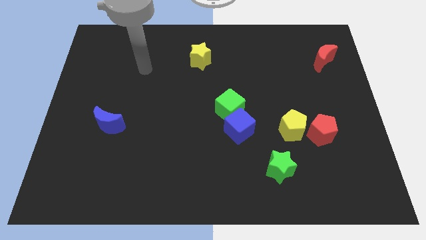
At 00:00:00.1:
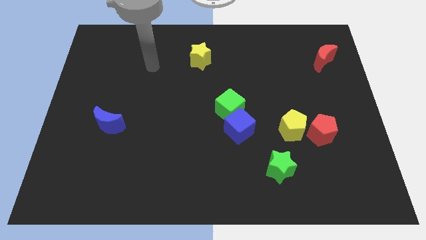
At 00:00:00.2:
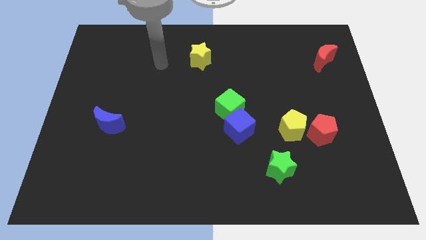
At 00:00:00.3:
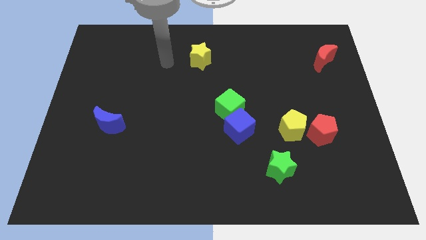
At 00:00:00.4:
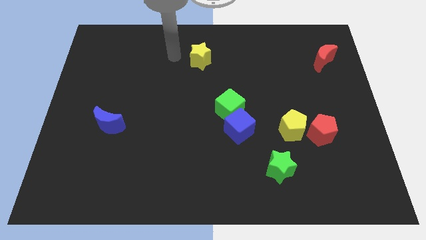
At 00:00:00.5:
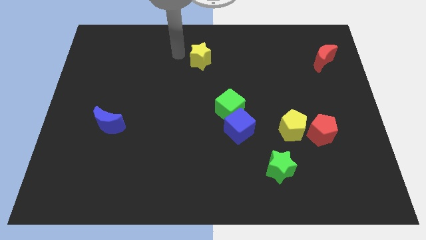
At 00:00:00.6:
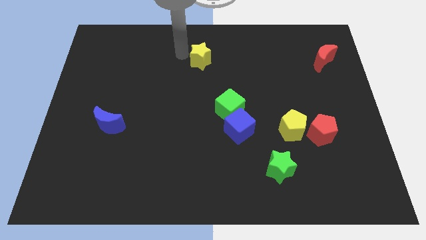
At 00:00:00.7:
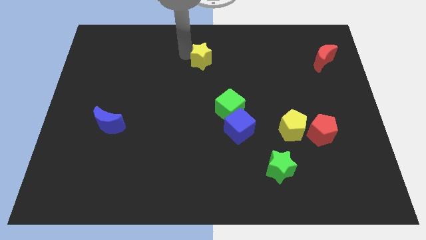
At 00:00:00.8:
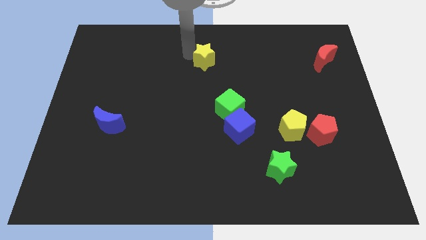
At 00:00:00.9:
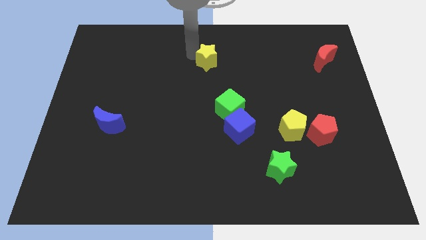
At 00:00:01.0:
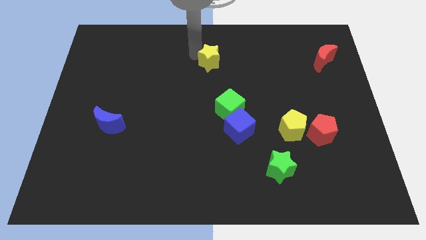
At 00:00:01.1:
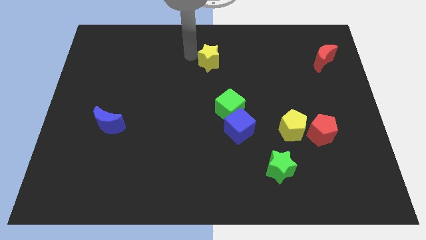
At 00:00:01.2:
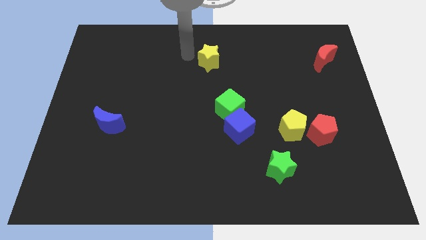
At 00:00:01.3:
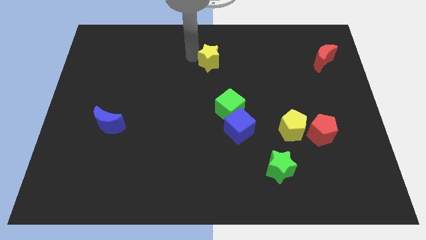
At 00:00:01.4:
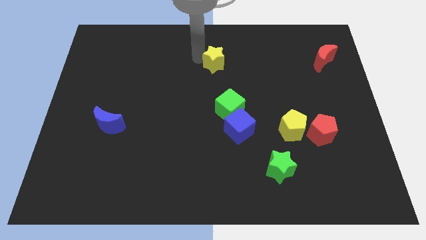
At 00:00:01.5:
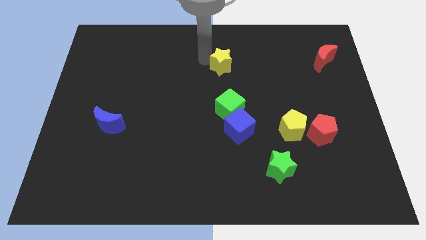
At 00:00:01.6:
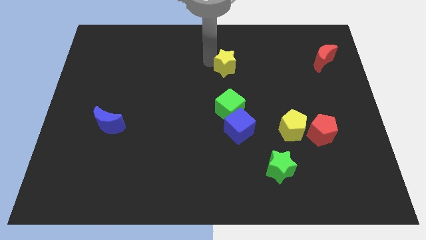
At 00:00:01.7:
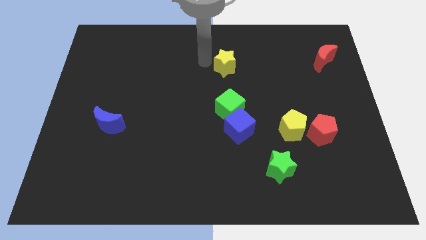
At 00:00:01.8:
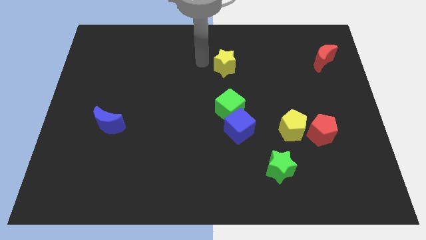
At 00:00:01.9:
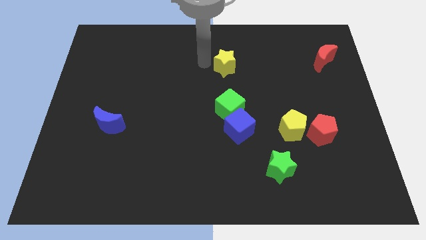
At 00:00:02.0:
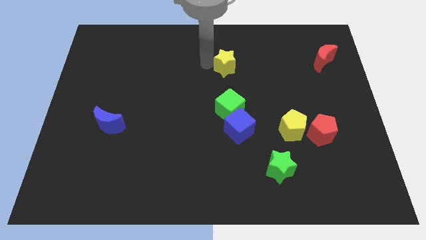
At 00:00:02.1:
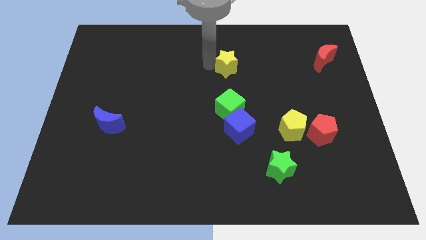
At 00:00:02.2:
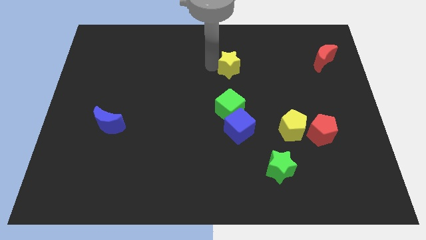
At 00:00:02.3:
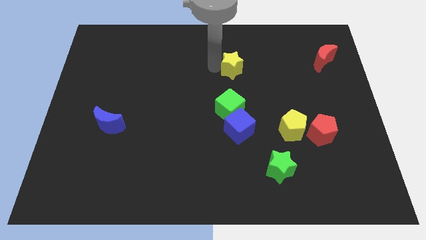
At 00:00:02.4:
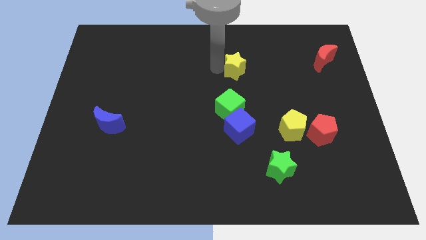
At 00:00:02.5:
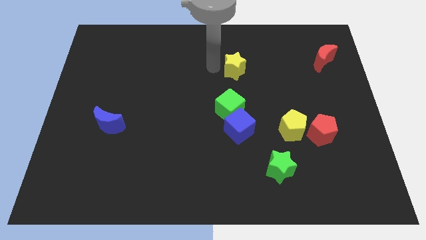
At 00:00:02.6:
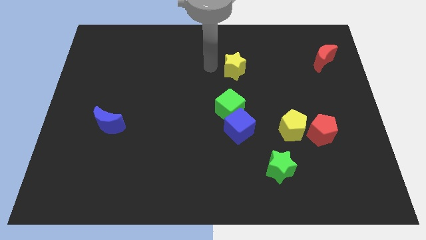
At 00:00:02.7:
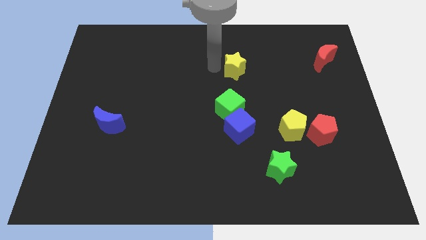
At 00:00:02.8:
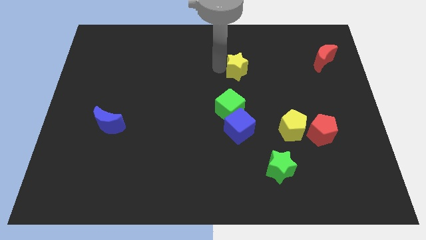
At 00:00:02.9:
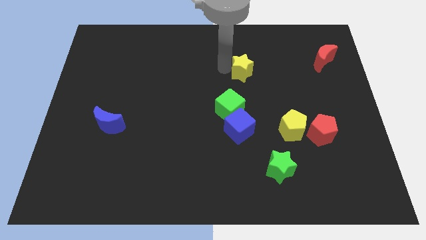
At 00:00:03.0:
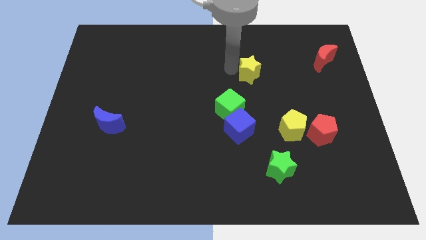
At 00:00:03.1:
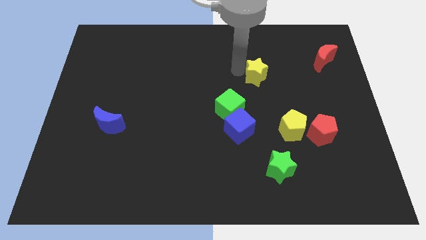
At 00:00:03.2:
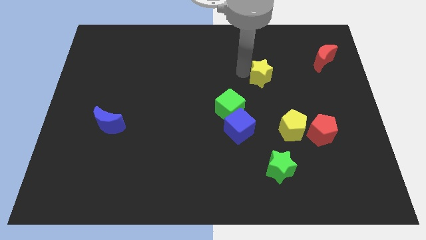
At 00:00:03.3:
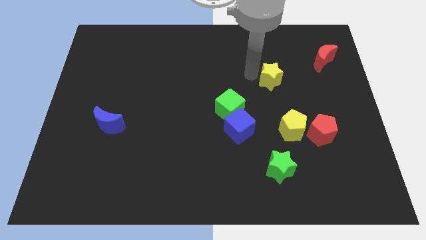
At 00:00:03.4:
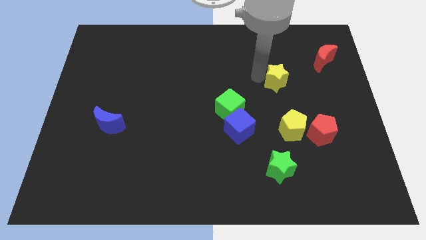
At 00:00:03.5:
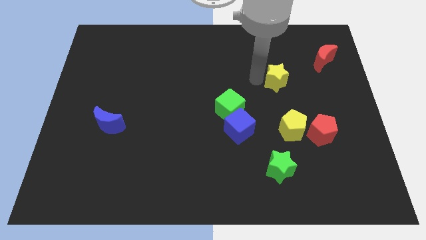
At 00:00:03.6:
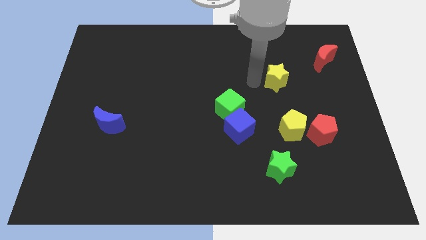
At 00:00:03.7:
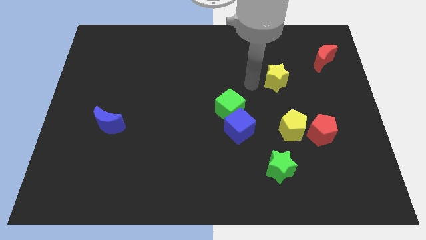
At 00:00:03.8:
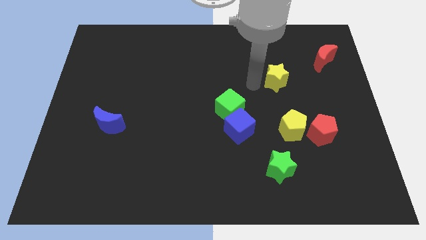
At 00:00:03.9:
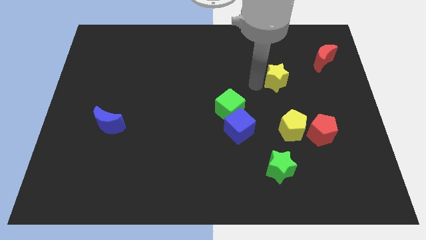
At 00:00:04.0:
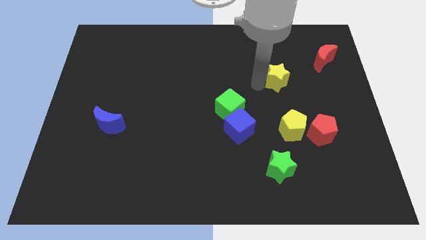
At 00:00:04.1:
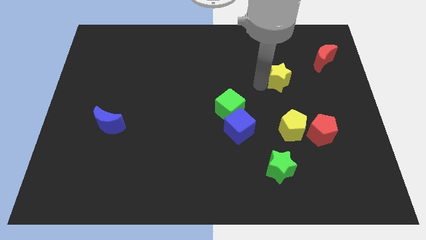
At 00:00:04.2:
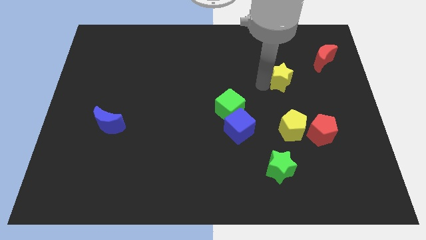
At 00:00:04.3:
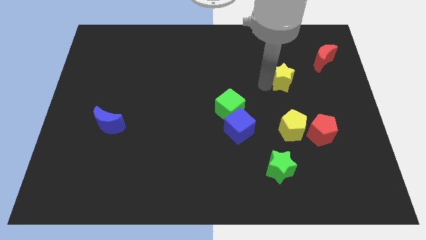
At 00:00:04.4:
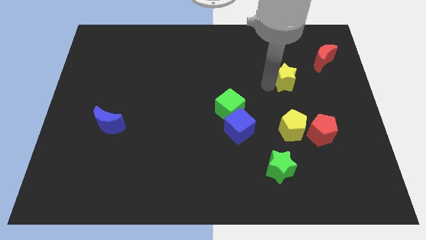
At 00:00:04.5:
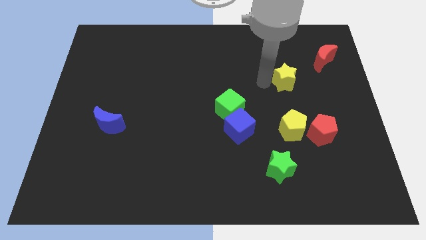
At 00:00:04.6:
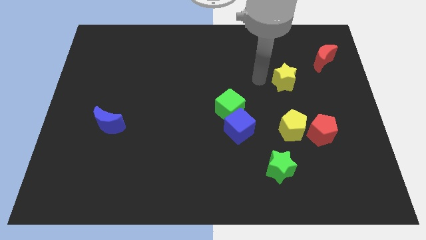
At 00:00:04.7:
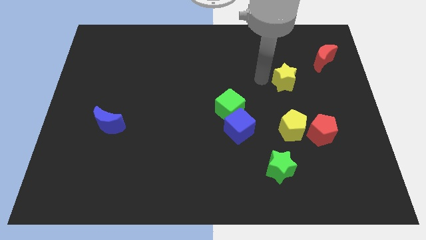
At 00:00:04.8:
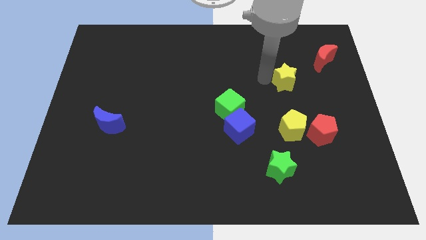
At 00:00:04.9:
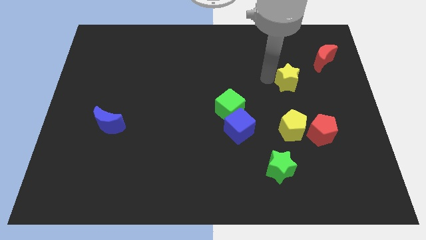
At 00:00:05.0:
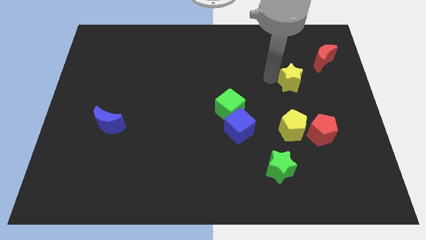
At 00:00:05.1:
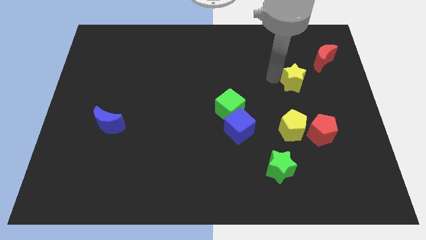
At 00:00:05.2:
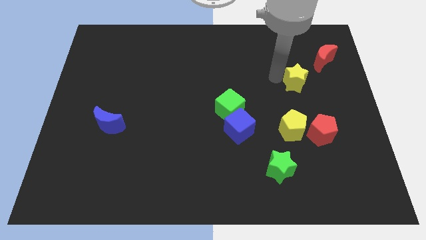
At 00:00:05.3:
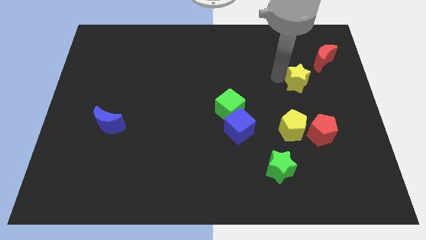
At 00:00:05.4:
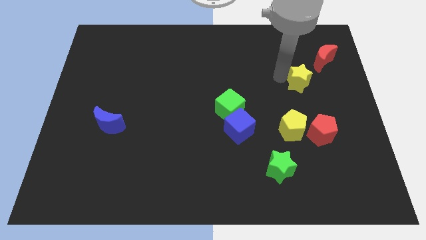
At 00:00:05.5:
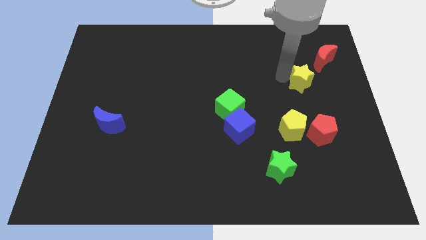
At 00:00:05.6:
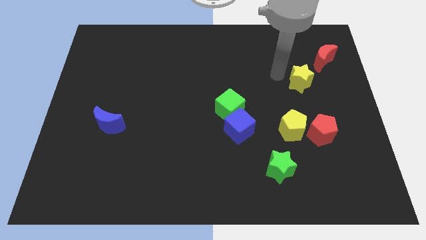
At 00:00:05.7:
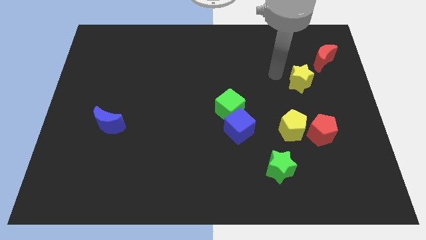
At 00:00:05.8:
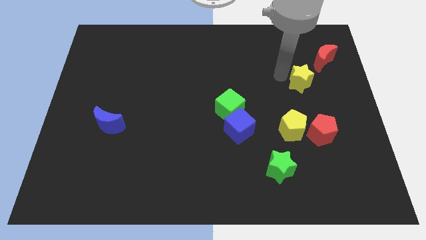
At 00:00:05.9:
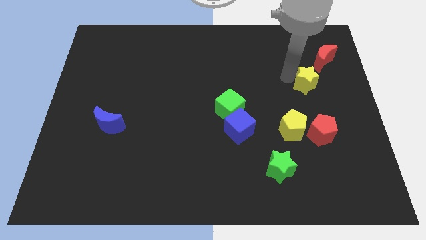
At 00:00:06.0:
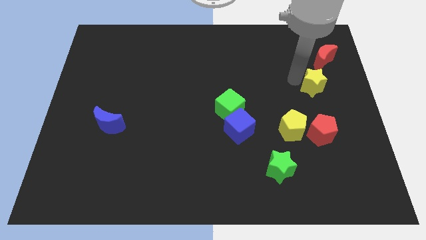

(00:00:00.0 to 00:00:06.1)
slide the yellow star to the bottom side of the red moon

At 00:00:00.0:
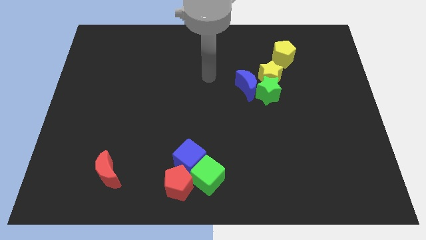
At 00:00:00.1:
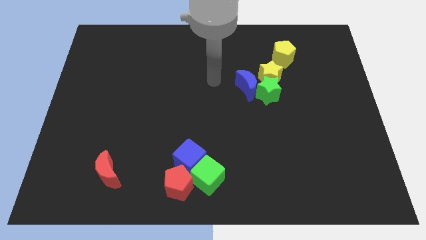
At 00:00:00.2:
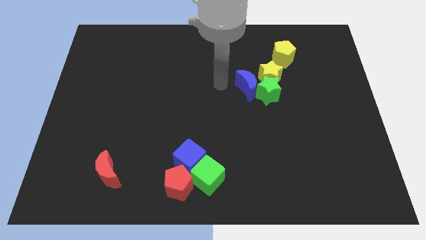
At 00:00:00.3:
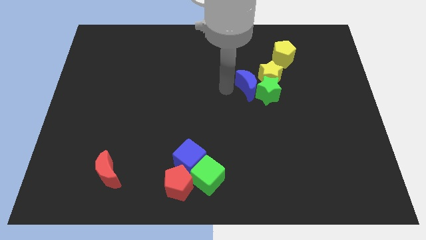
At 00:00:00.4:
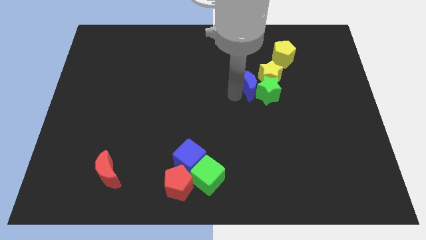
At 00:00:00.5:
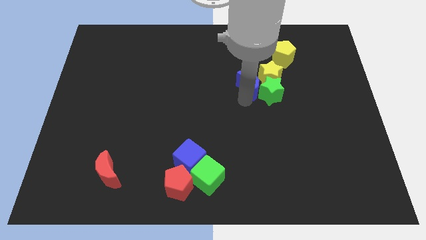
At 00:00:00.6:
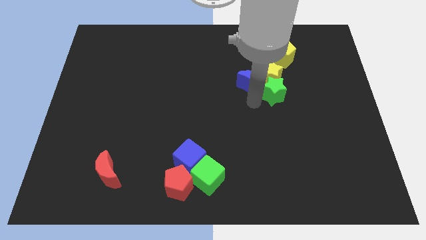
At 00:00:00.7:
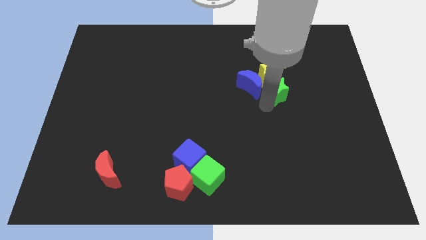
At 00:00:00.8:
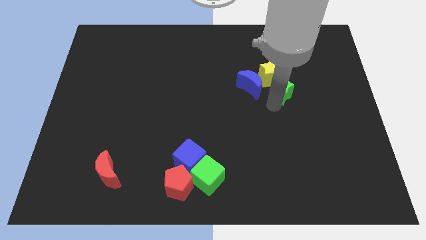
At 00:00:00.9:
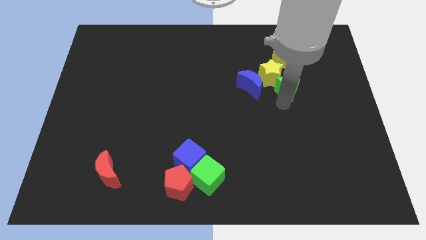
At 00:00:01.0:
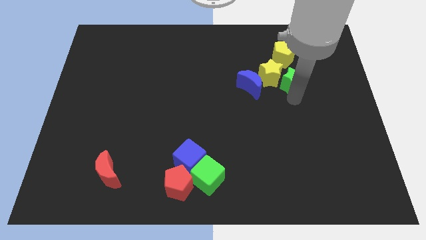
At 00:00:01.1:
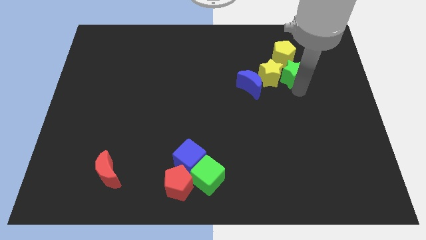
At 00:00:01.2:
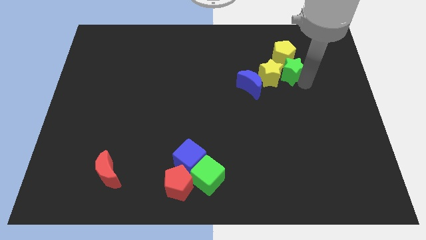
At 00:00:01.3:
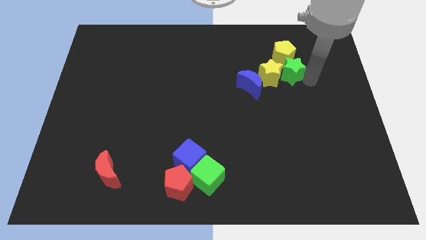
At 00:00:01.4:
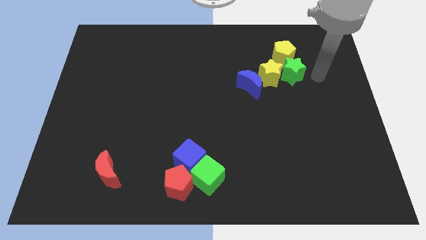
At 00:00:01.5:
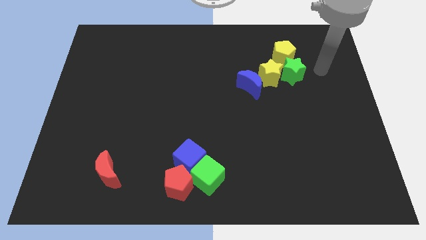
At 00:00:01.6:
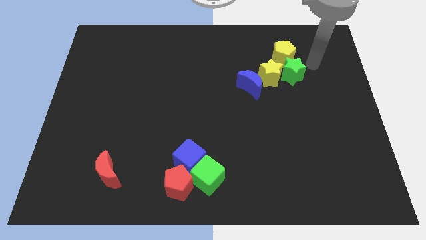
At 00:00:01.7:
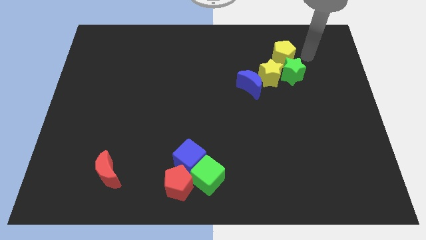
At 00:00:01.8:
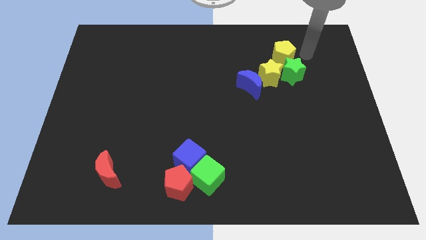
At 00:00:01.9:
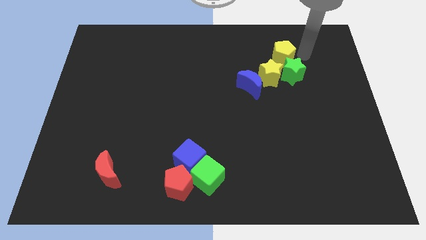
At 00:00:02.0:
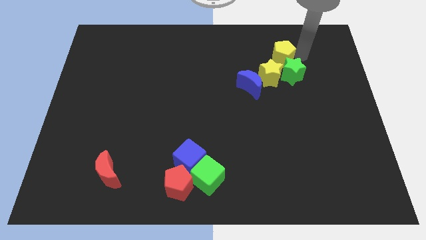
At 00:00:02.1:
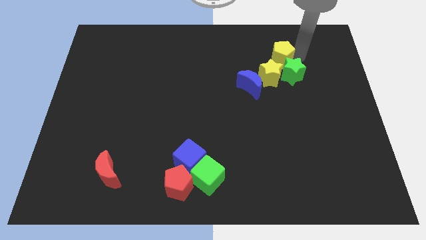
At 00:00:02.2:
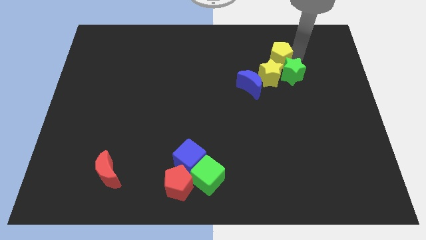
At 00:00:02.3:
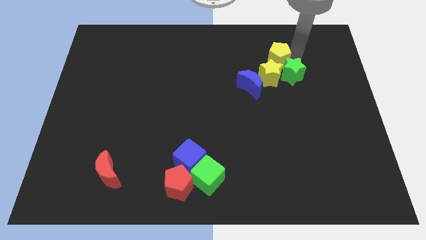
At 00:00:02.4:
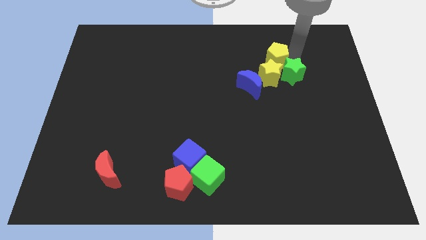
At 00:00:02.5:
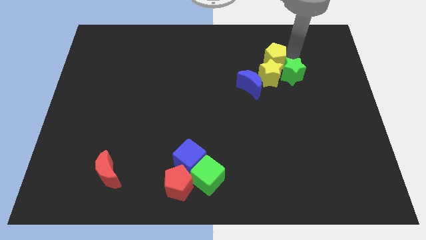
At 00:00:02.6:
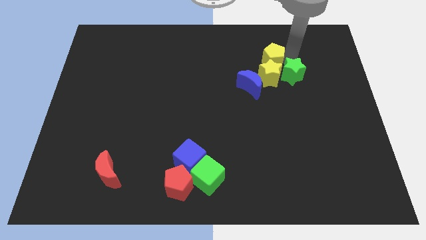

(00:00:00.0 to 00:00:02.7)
put the yellow pentagon to the top left side of the yellow star
